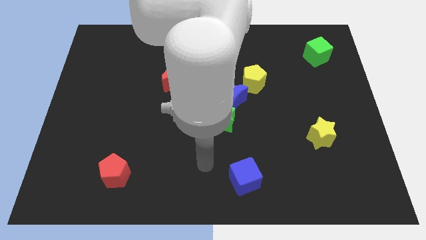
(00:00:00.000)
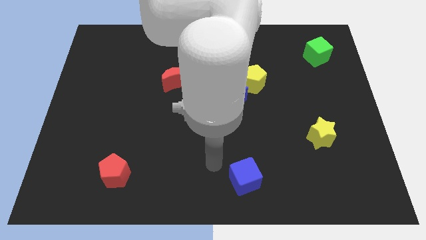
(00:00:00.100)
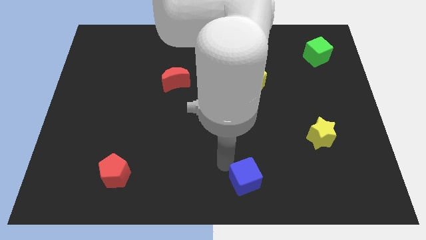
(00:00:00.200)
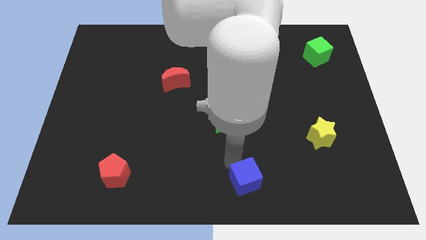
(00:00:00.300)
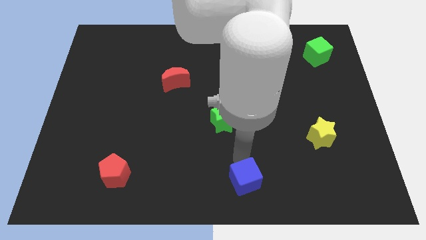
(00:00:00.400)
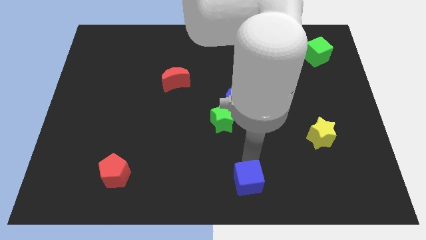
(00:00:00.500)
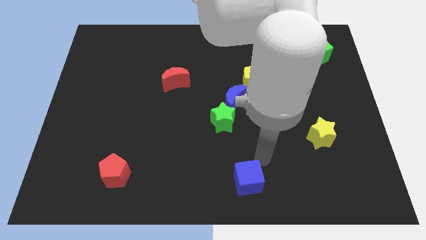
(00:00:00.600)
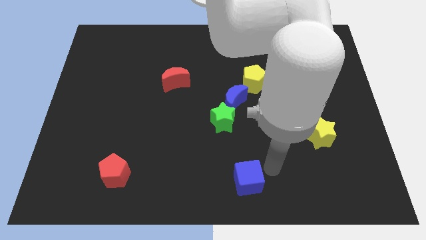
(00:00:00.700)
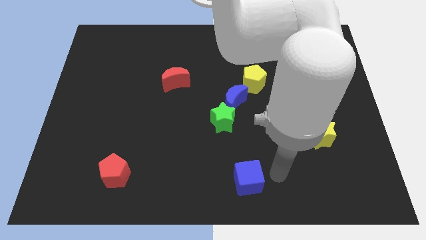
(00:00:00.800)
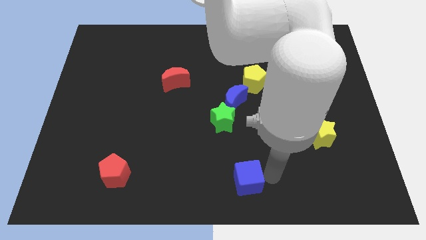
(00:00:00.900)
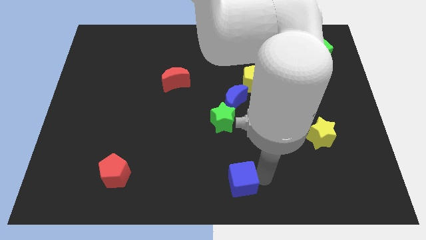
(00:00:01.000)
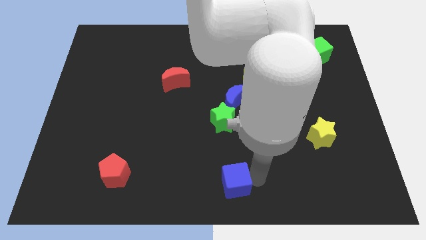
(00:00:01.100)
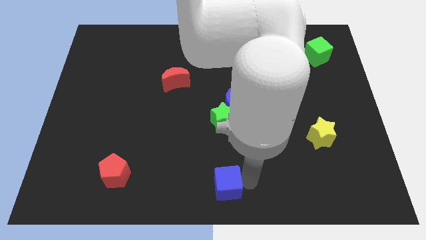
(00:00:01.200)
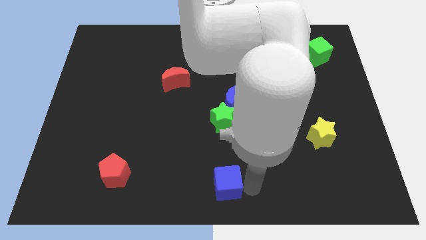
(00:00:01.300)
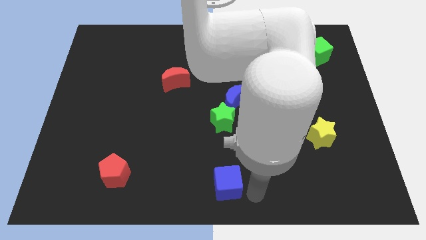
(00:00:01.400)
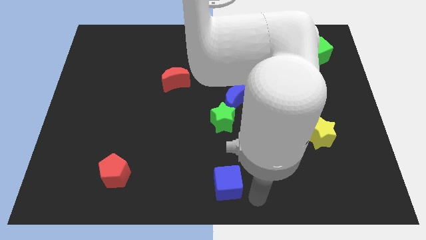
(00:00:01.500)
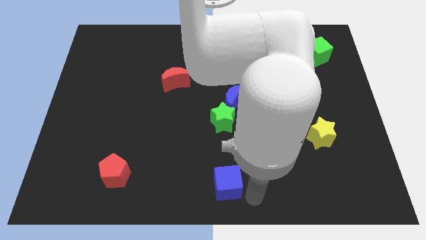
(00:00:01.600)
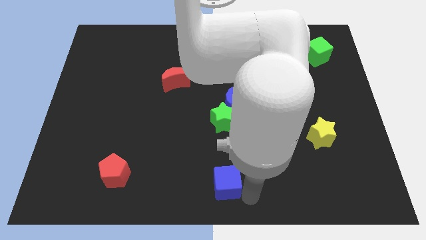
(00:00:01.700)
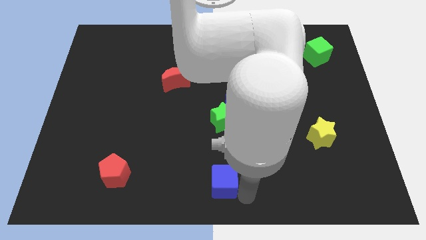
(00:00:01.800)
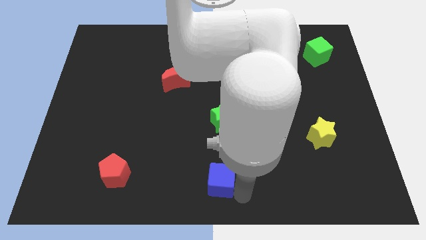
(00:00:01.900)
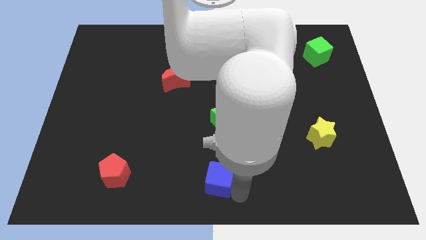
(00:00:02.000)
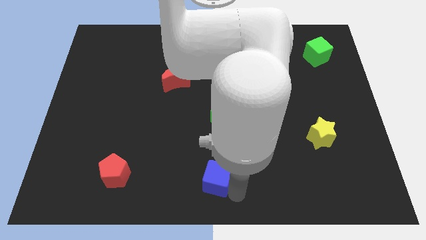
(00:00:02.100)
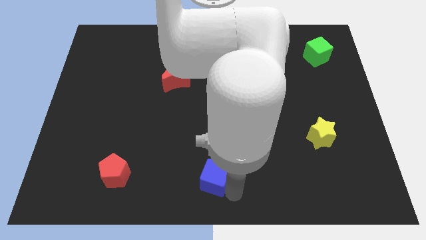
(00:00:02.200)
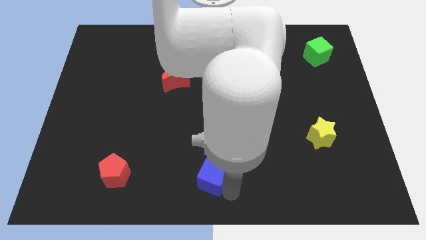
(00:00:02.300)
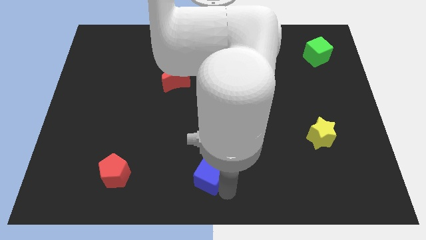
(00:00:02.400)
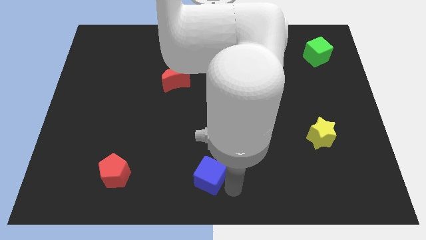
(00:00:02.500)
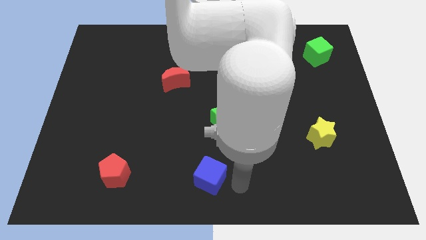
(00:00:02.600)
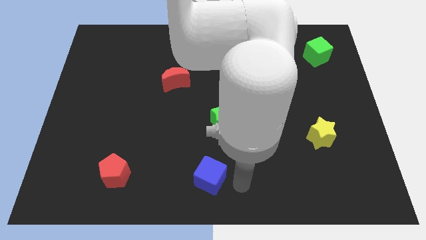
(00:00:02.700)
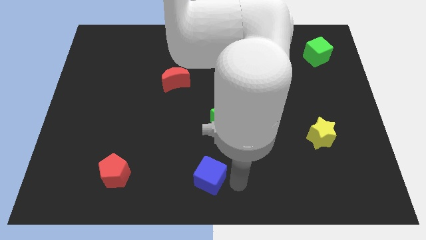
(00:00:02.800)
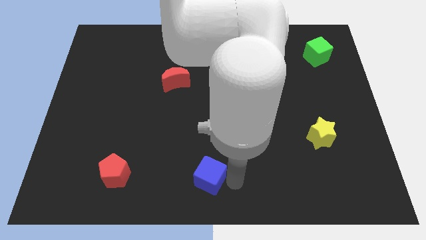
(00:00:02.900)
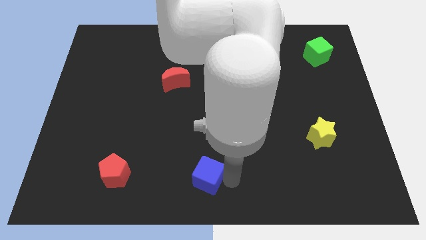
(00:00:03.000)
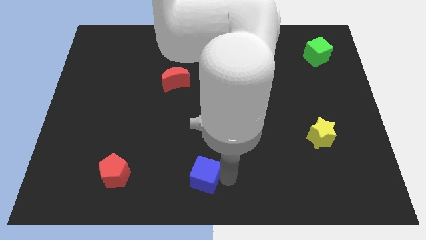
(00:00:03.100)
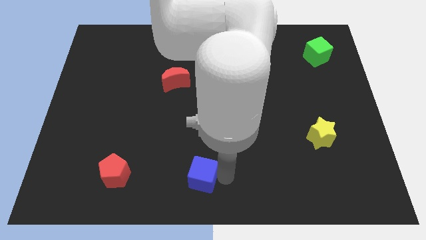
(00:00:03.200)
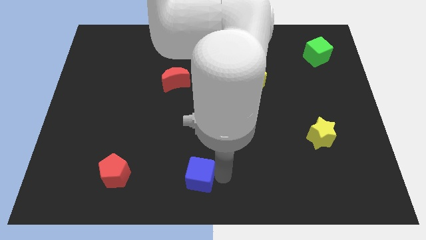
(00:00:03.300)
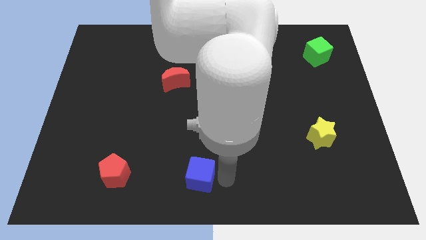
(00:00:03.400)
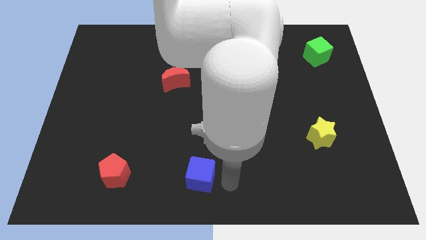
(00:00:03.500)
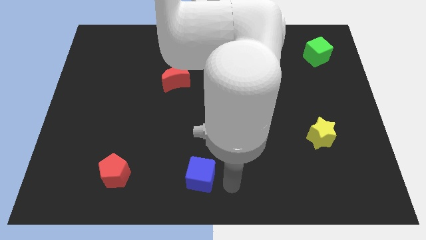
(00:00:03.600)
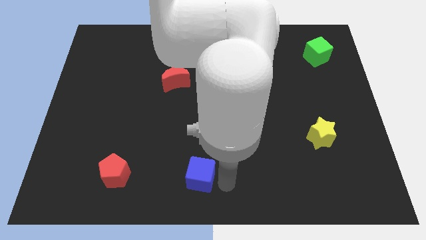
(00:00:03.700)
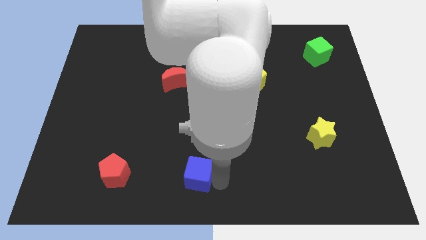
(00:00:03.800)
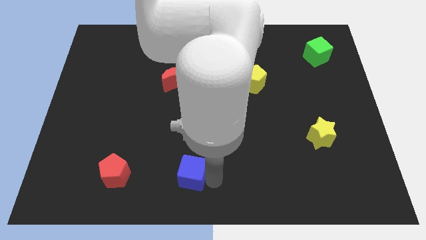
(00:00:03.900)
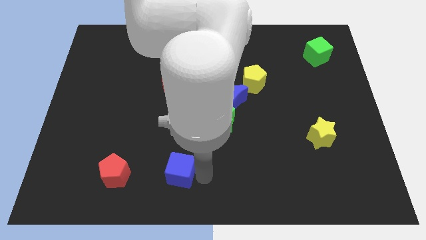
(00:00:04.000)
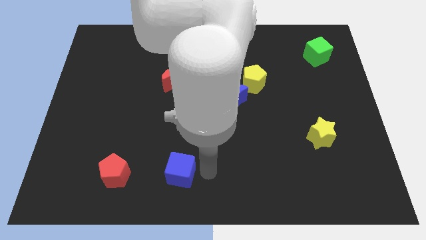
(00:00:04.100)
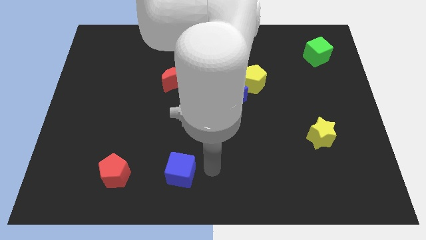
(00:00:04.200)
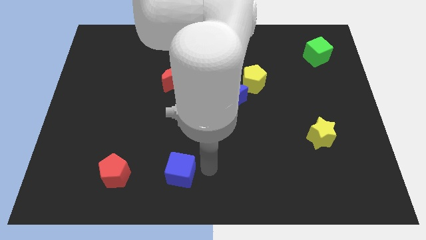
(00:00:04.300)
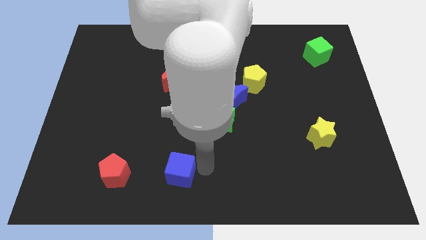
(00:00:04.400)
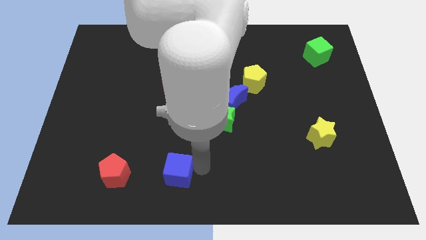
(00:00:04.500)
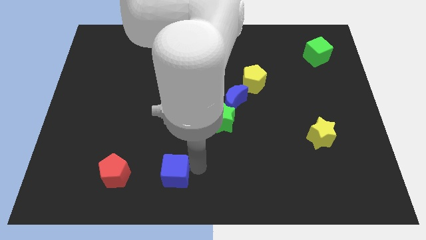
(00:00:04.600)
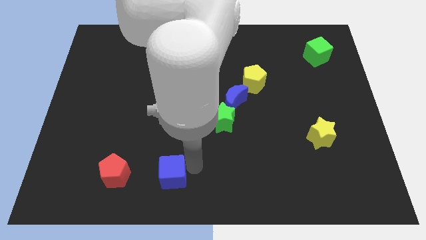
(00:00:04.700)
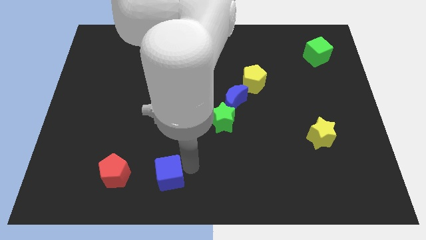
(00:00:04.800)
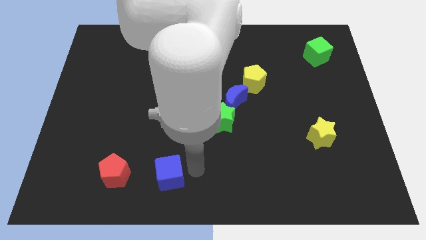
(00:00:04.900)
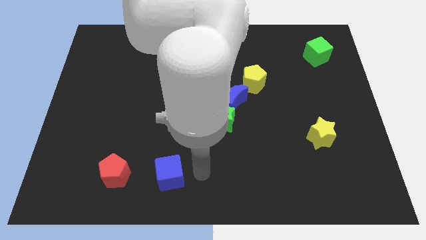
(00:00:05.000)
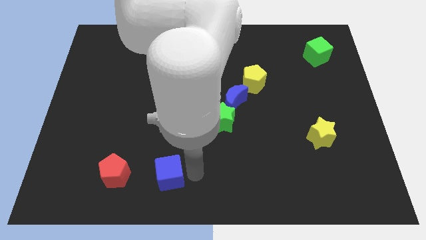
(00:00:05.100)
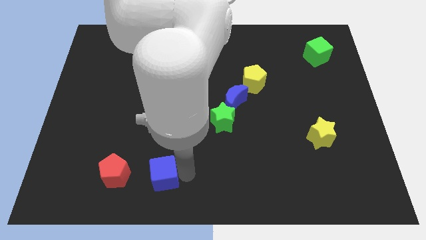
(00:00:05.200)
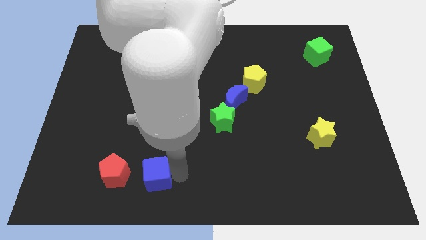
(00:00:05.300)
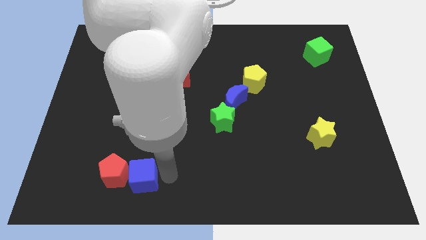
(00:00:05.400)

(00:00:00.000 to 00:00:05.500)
push the blue cube towards the red pentagon

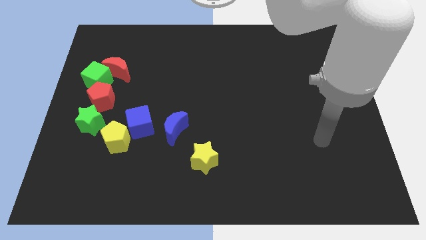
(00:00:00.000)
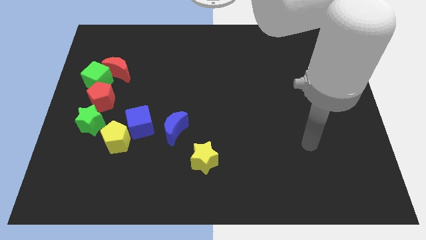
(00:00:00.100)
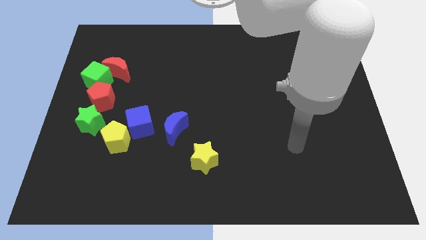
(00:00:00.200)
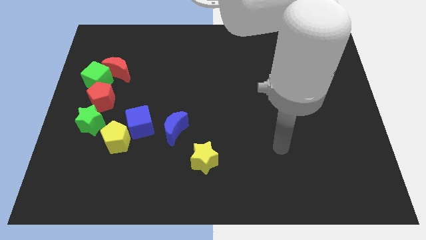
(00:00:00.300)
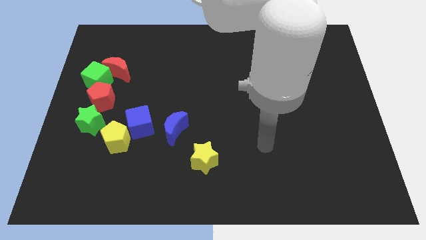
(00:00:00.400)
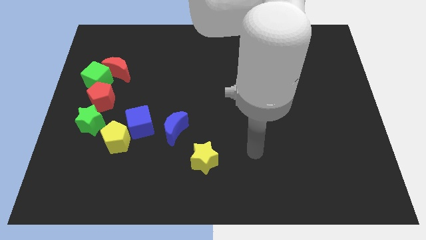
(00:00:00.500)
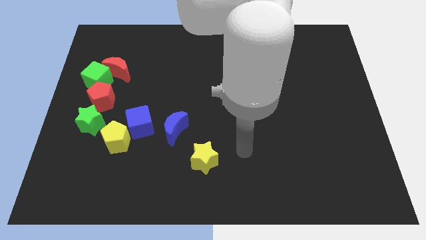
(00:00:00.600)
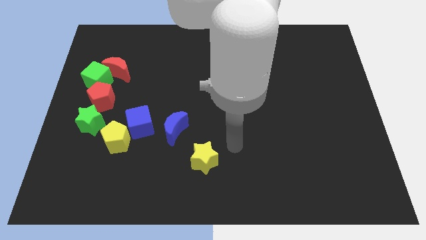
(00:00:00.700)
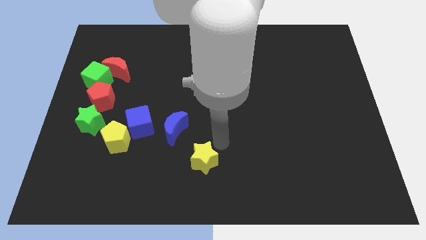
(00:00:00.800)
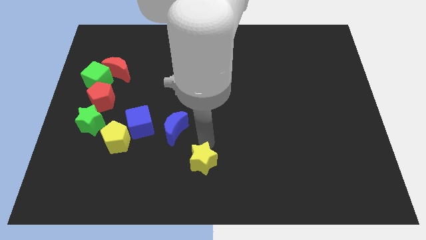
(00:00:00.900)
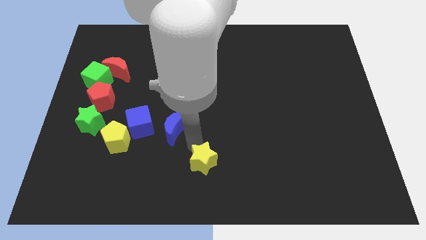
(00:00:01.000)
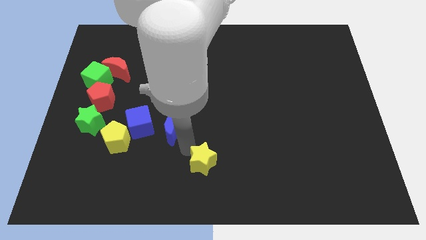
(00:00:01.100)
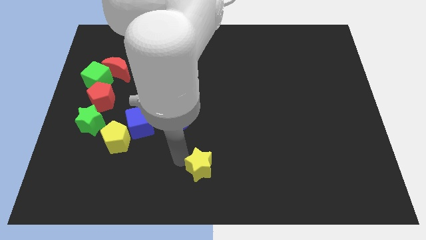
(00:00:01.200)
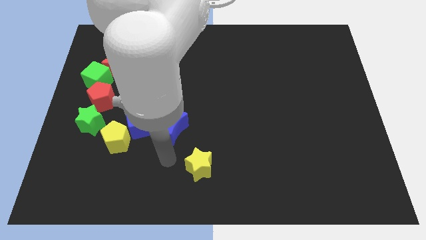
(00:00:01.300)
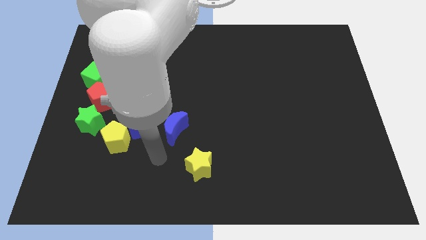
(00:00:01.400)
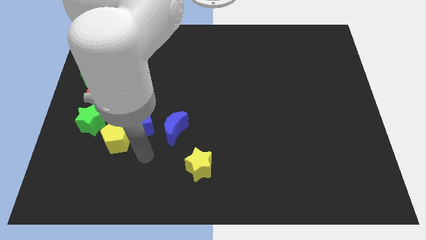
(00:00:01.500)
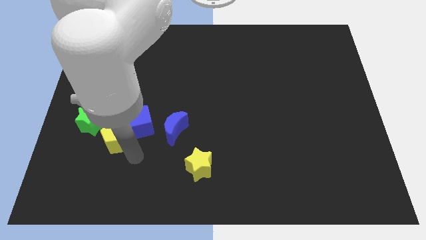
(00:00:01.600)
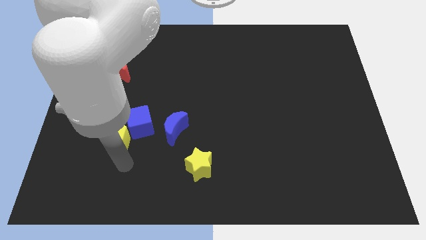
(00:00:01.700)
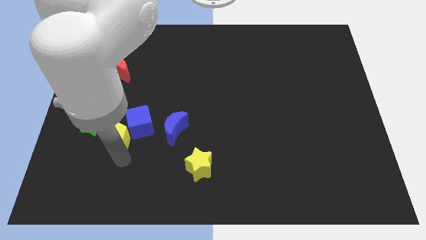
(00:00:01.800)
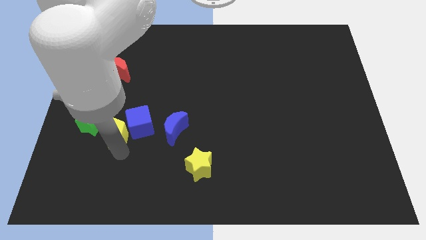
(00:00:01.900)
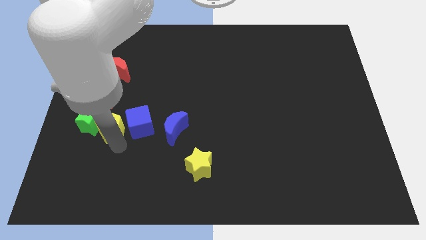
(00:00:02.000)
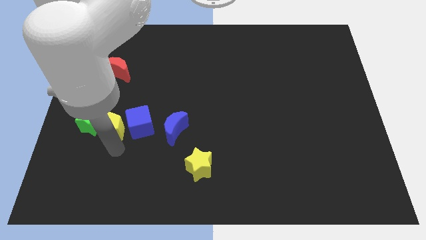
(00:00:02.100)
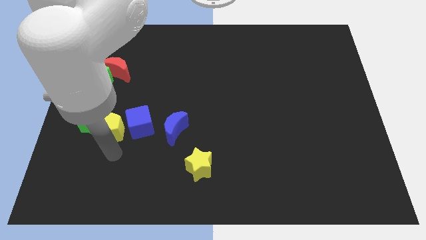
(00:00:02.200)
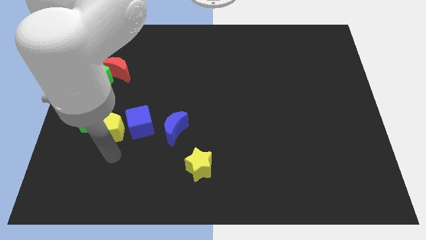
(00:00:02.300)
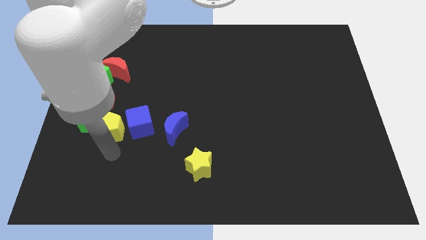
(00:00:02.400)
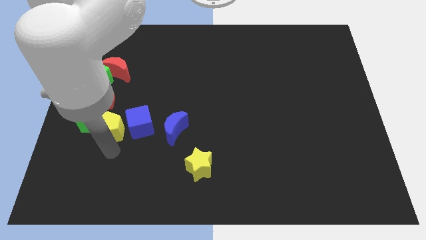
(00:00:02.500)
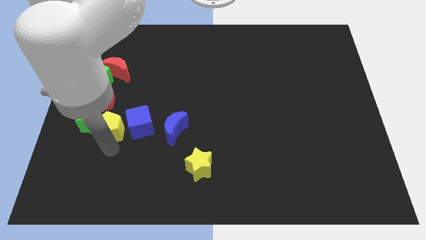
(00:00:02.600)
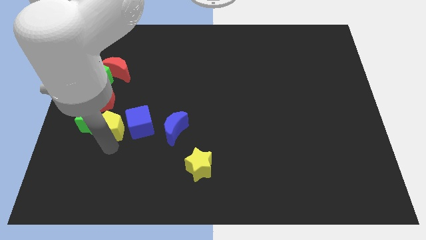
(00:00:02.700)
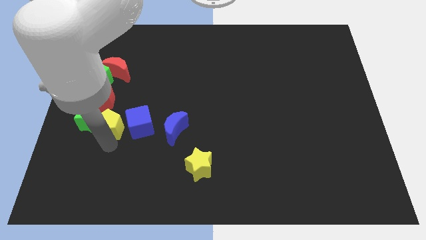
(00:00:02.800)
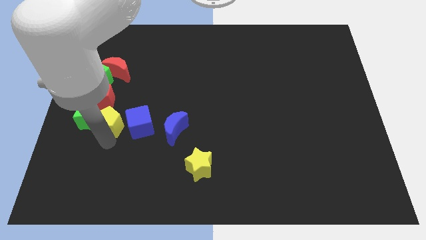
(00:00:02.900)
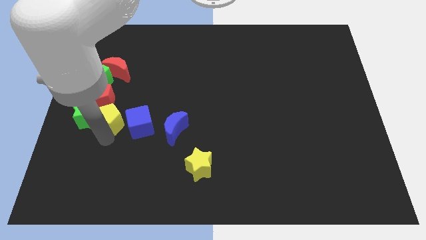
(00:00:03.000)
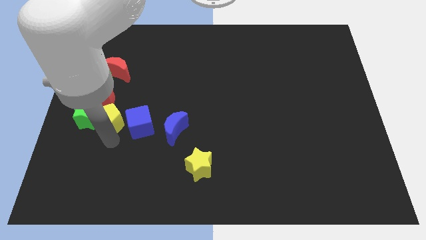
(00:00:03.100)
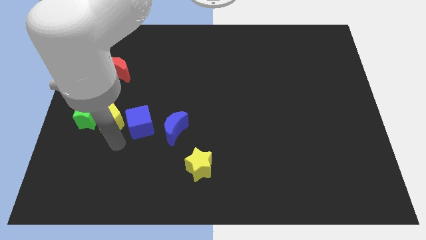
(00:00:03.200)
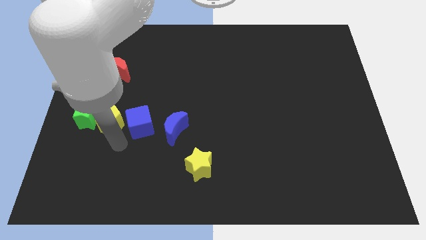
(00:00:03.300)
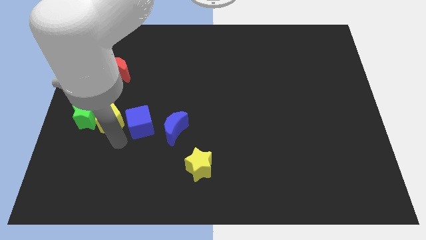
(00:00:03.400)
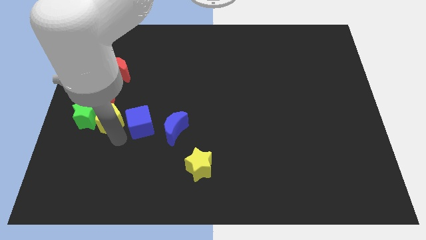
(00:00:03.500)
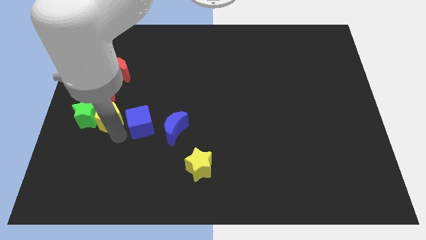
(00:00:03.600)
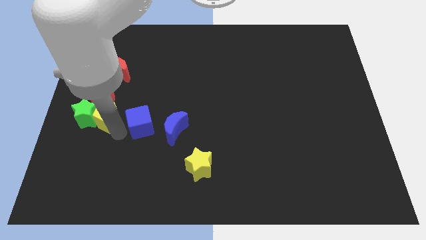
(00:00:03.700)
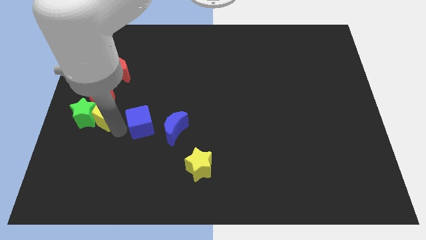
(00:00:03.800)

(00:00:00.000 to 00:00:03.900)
slide the yellow pentagon towards the red pentagon
